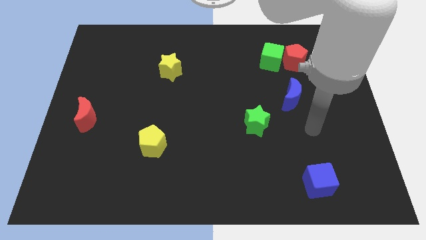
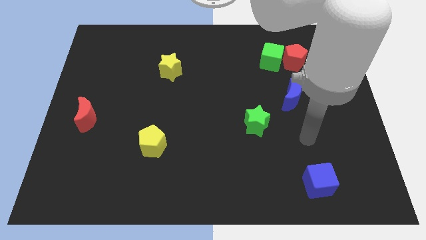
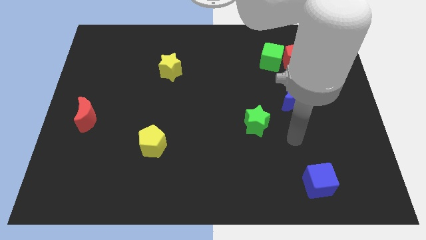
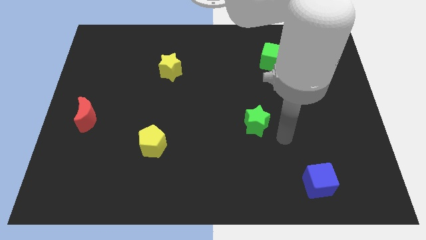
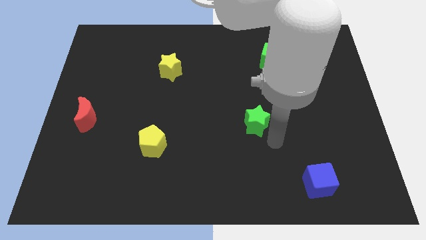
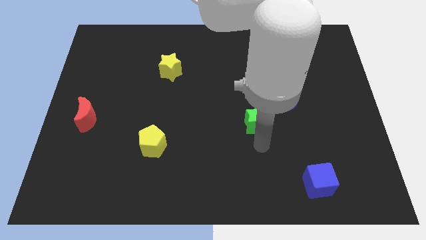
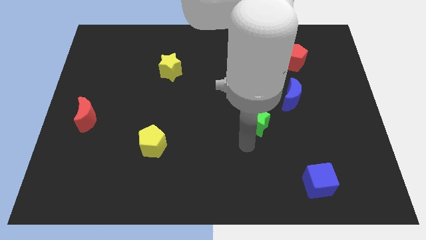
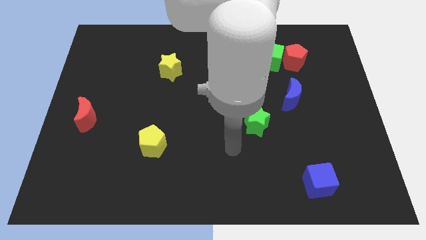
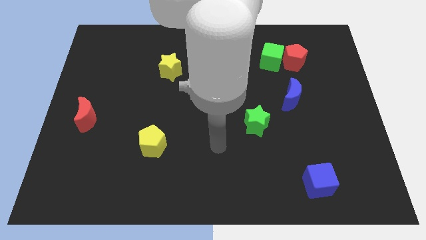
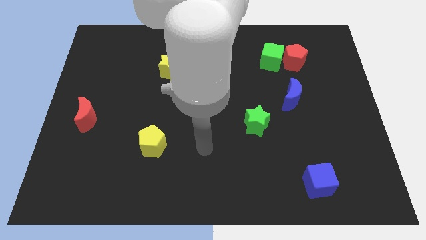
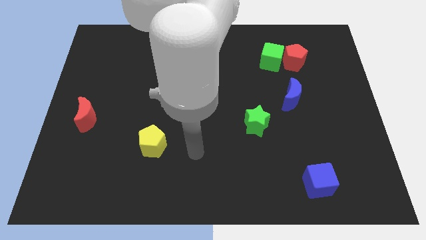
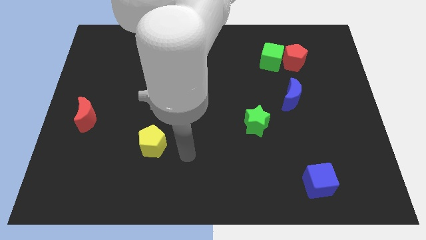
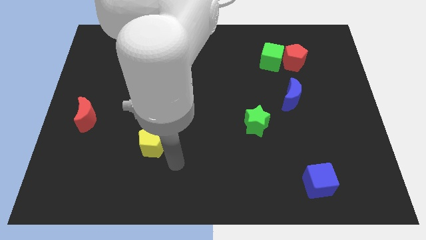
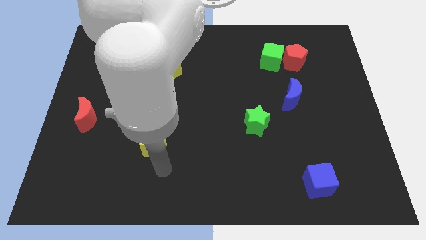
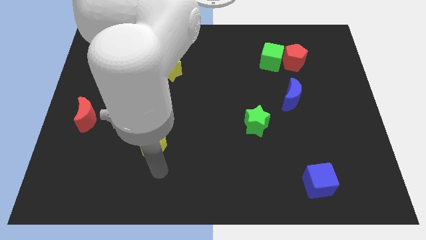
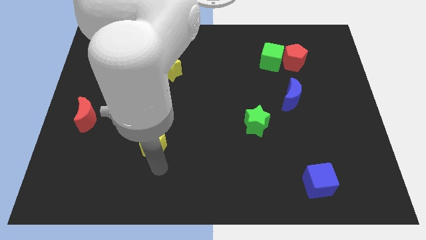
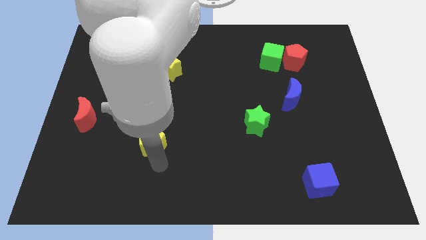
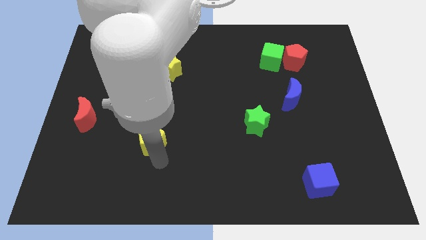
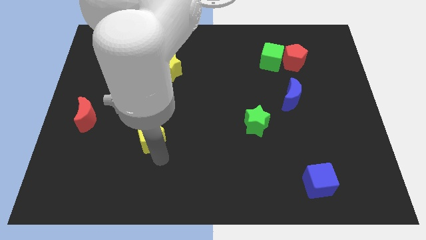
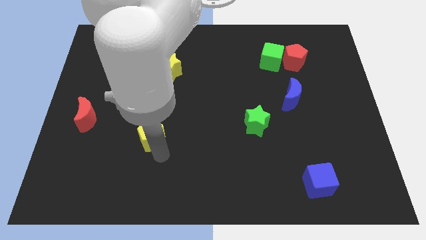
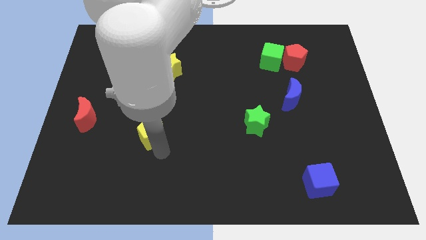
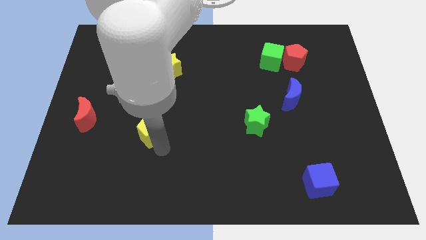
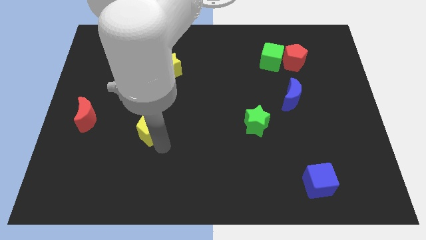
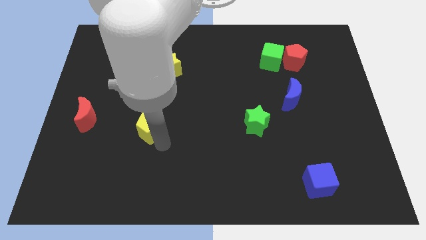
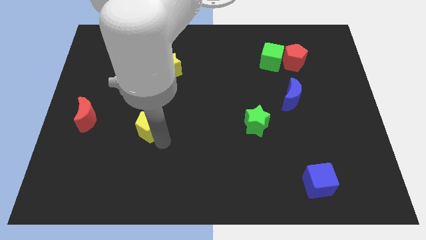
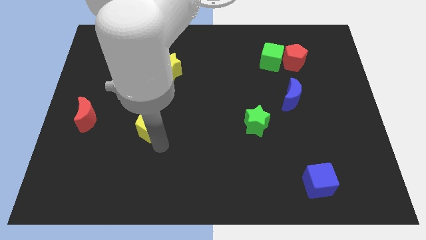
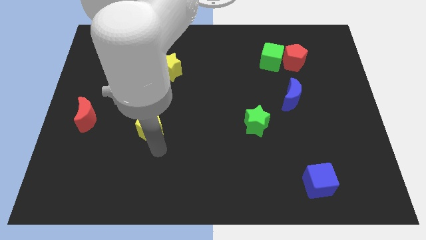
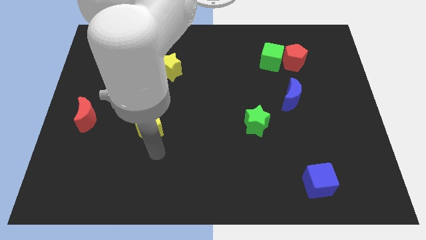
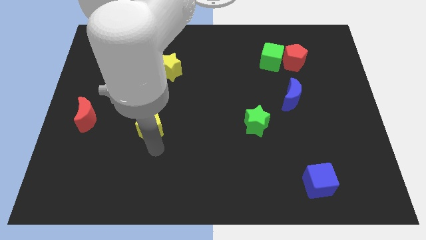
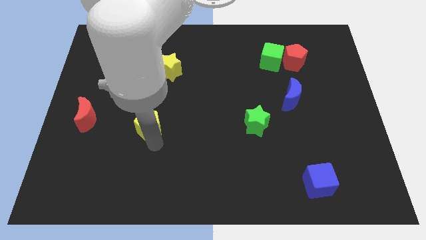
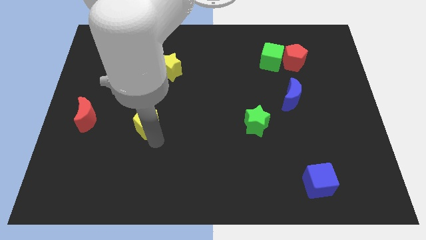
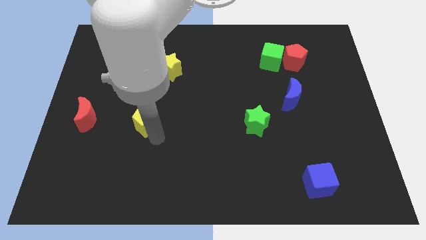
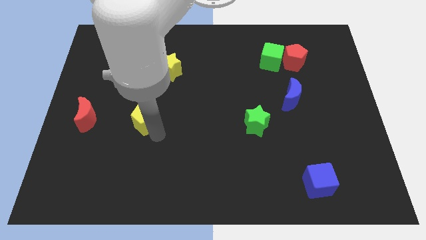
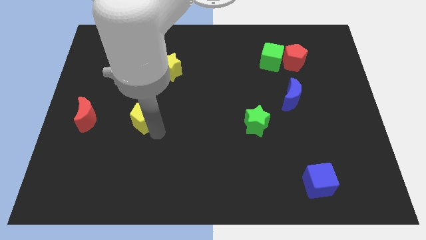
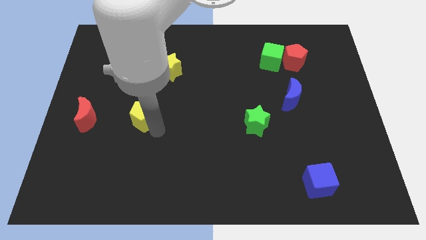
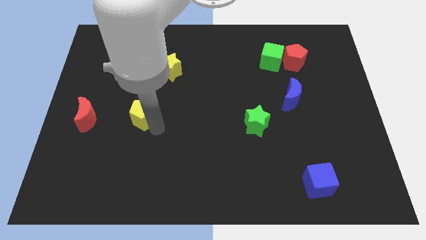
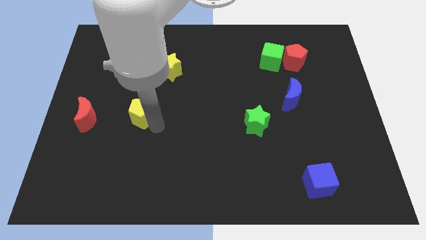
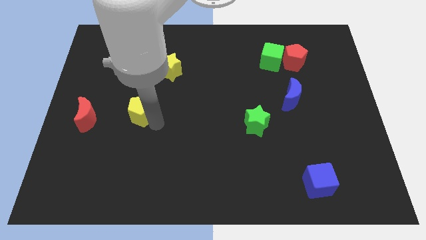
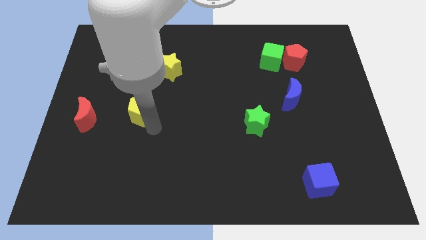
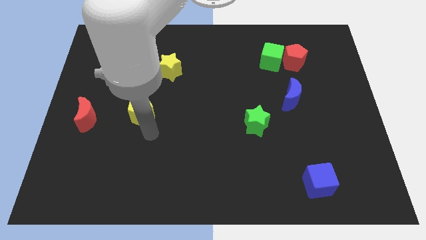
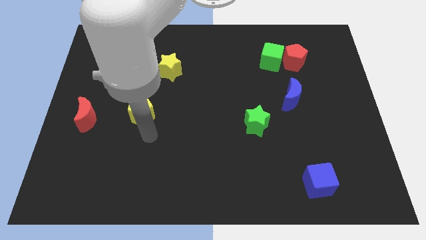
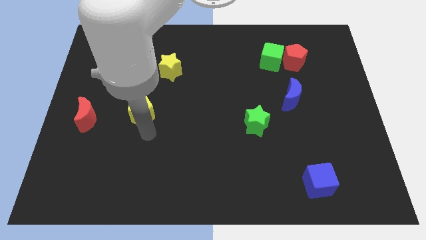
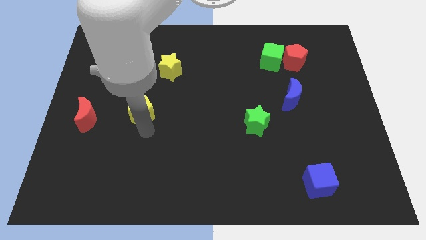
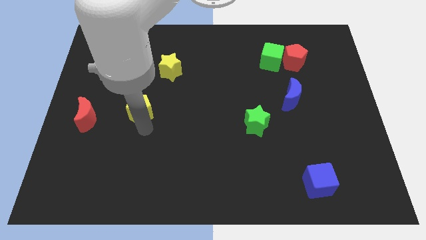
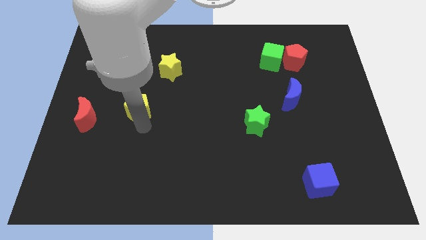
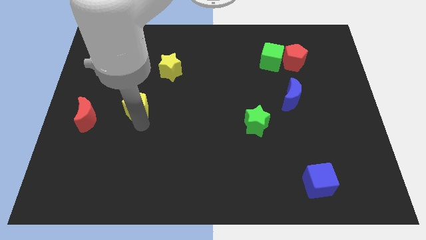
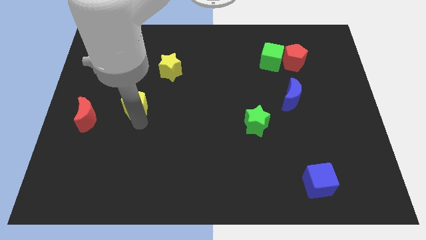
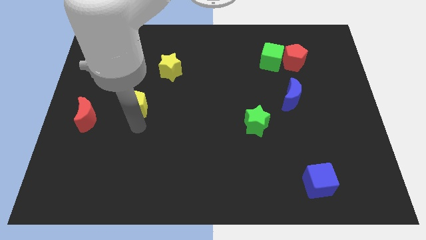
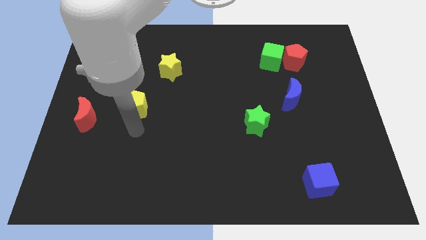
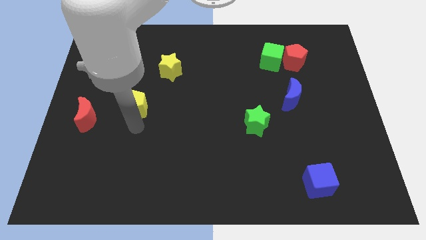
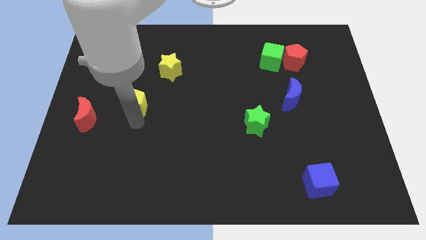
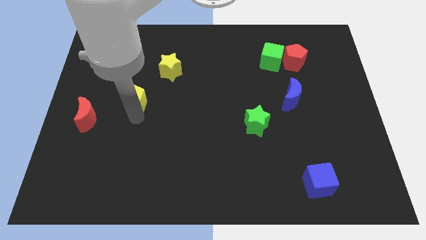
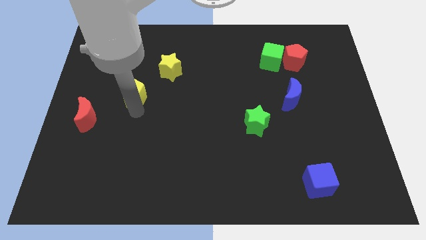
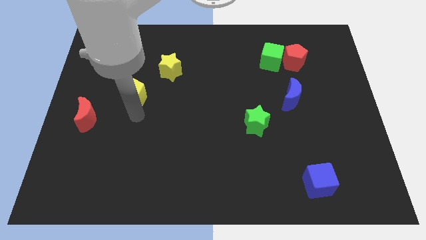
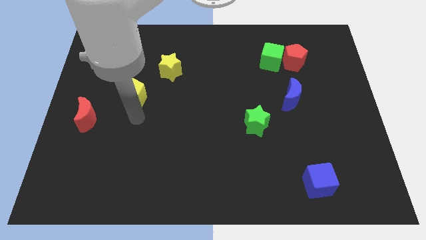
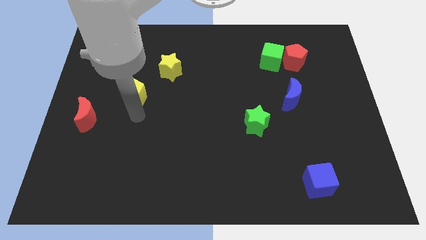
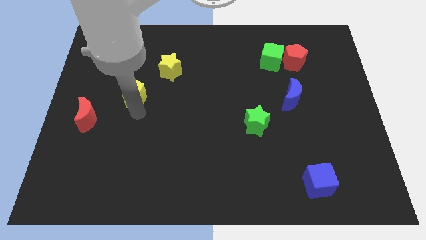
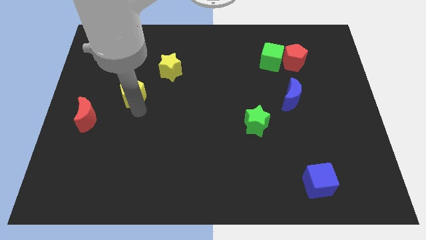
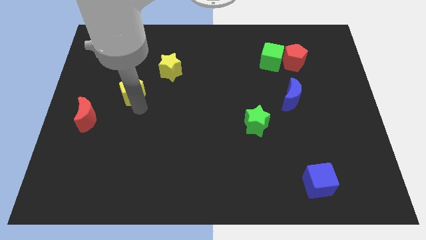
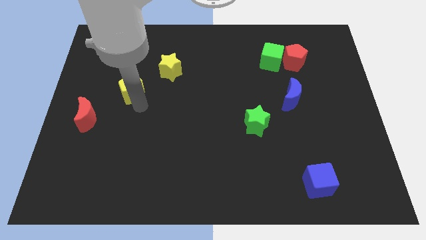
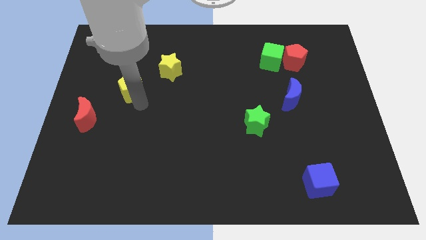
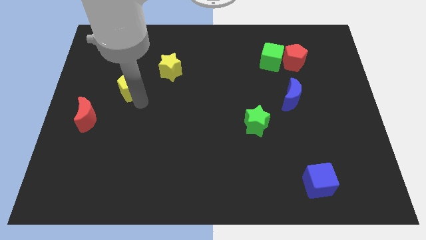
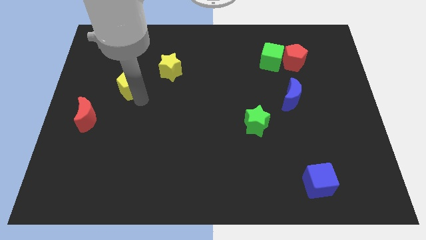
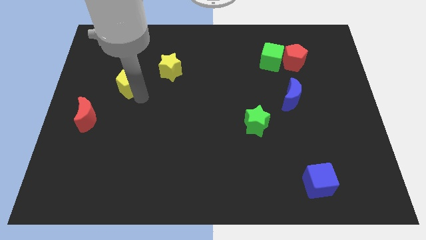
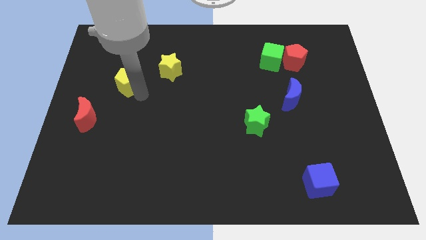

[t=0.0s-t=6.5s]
push the yellow pentagon just left of the yellow star
